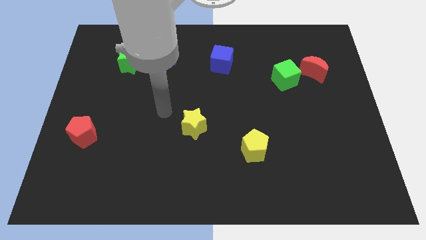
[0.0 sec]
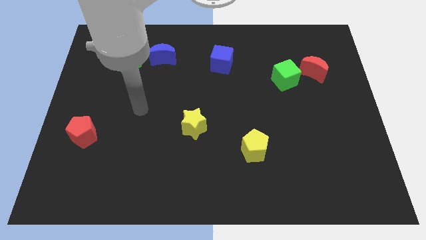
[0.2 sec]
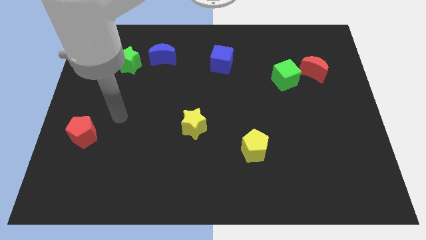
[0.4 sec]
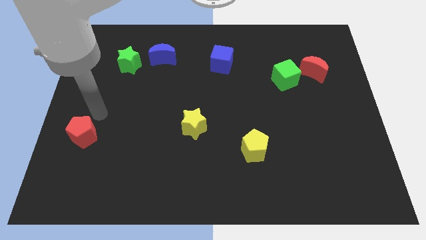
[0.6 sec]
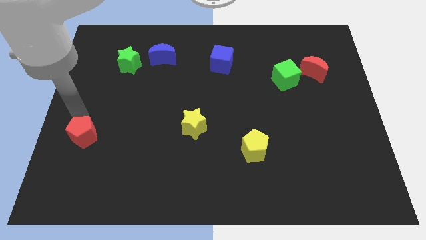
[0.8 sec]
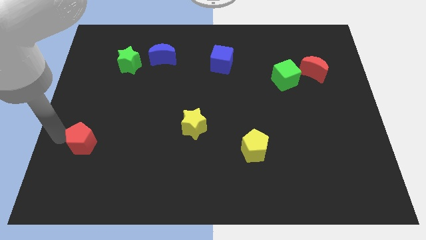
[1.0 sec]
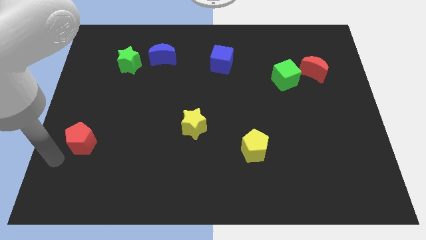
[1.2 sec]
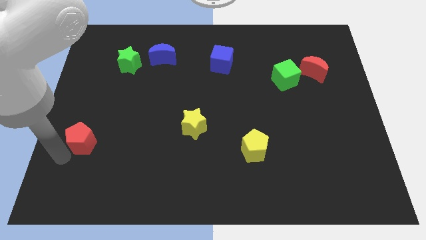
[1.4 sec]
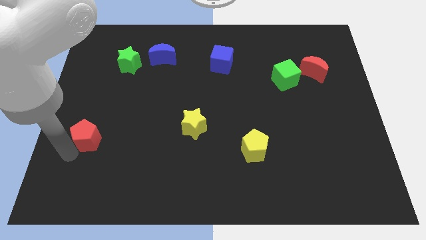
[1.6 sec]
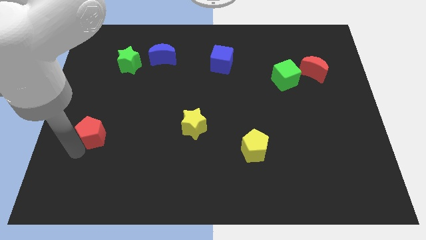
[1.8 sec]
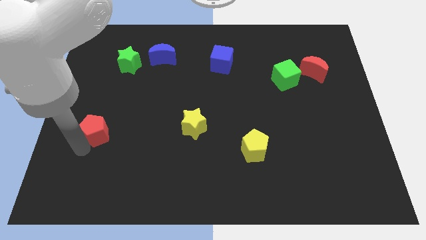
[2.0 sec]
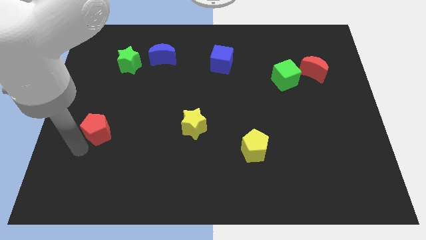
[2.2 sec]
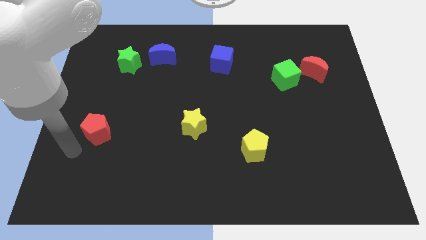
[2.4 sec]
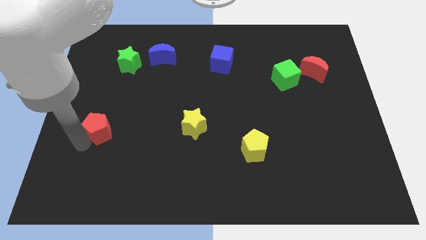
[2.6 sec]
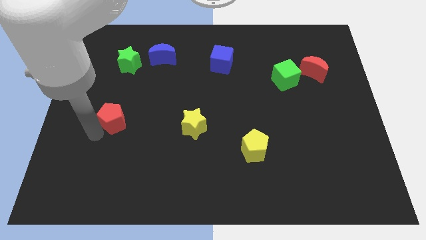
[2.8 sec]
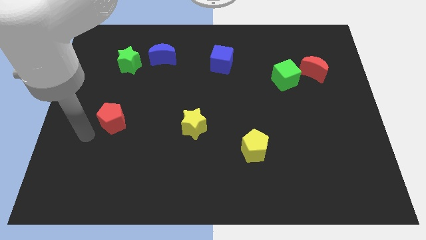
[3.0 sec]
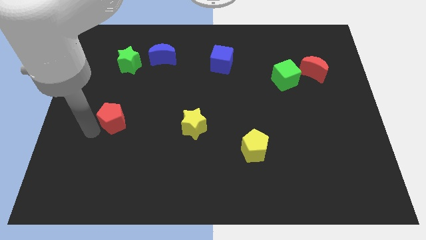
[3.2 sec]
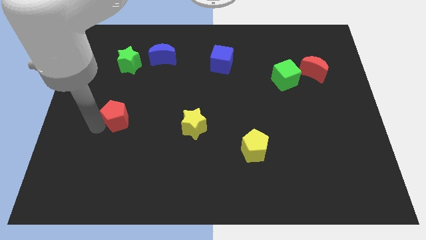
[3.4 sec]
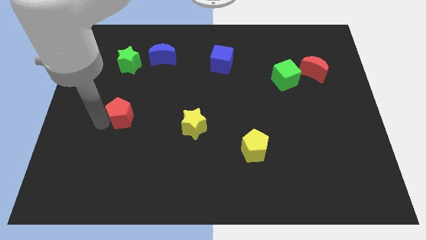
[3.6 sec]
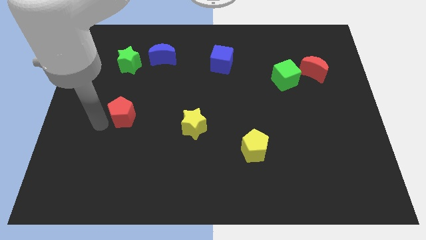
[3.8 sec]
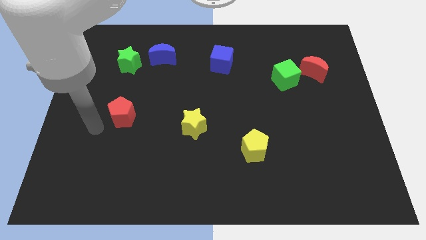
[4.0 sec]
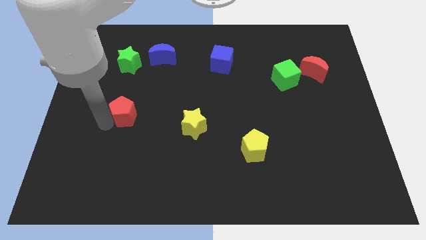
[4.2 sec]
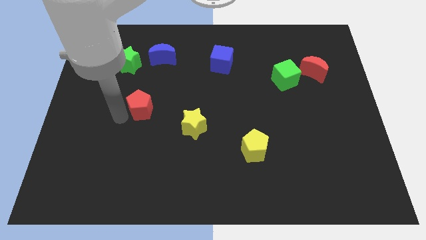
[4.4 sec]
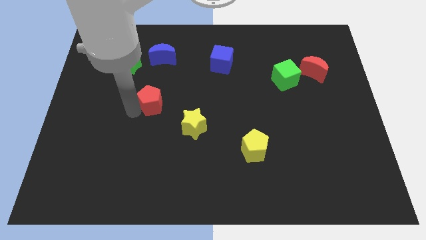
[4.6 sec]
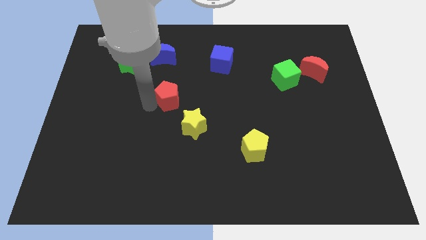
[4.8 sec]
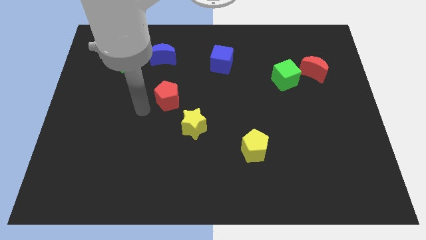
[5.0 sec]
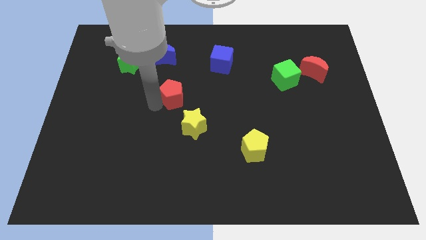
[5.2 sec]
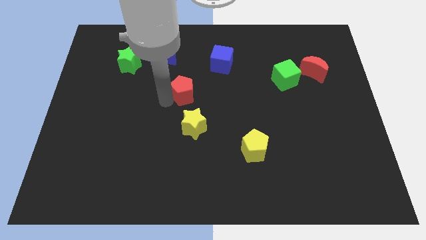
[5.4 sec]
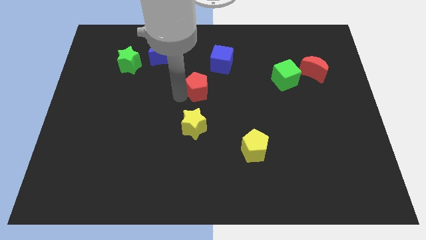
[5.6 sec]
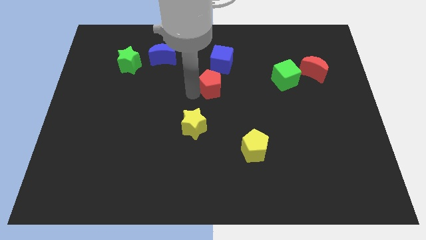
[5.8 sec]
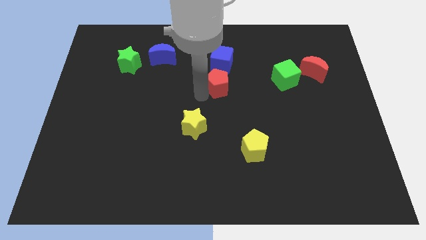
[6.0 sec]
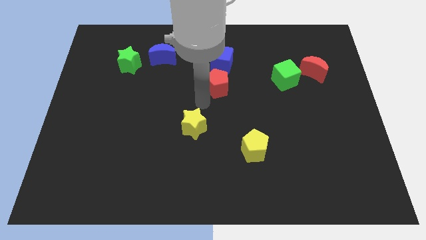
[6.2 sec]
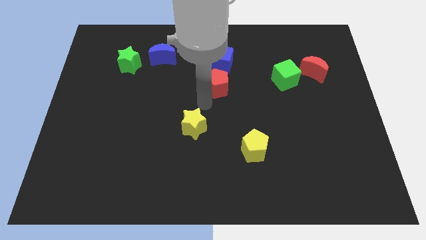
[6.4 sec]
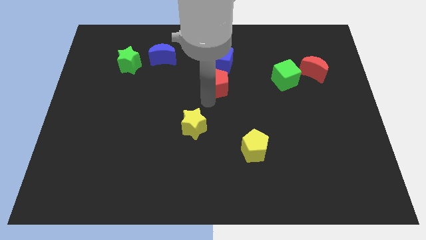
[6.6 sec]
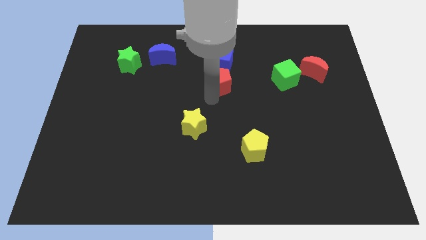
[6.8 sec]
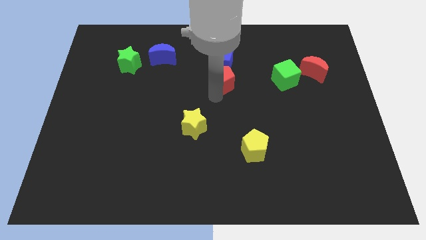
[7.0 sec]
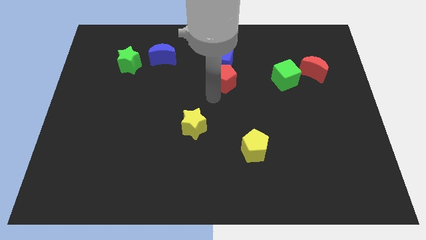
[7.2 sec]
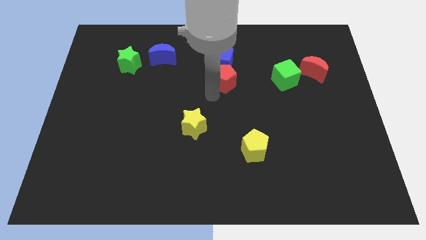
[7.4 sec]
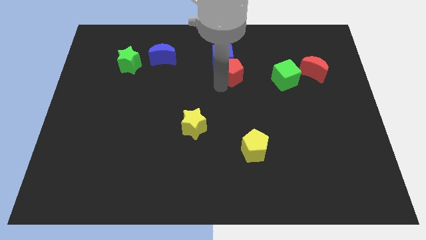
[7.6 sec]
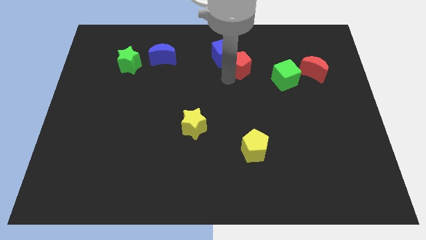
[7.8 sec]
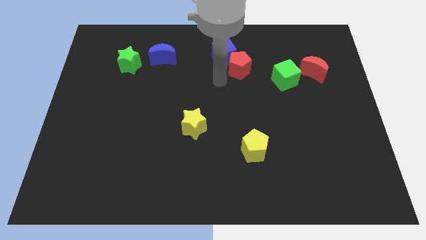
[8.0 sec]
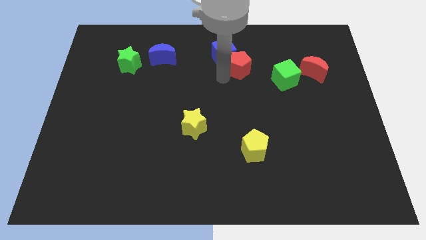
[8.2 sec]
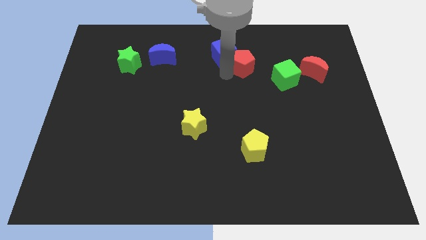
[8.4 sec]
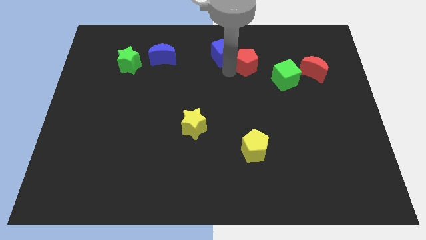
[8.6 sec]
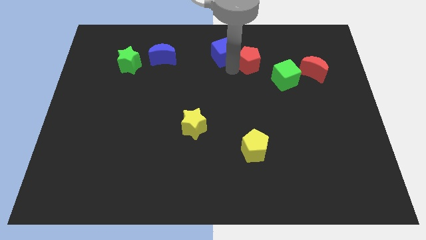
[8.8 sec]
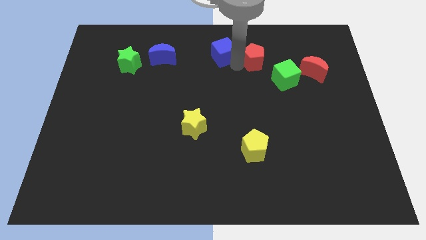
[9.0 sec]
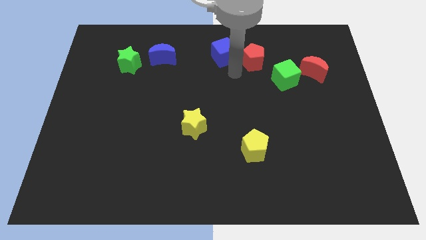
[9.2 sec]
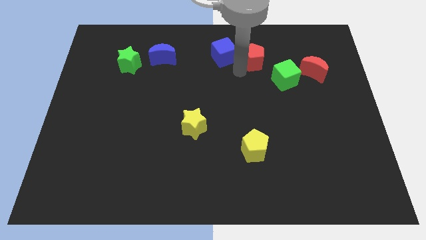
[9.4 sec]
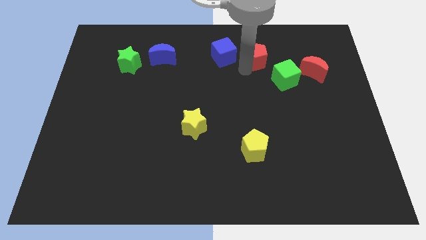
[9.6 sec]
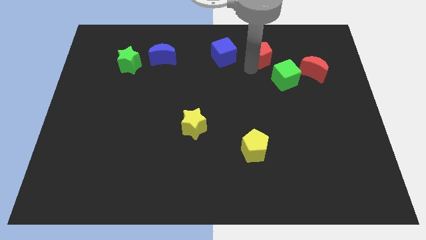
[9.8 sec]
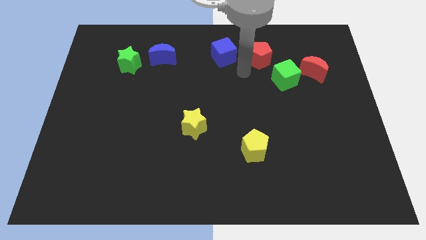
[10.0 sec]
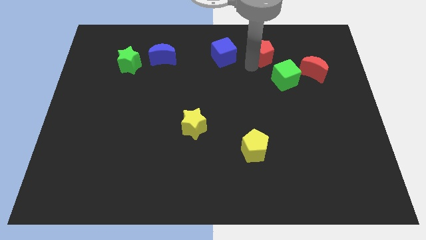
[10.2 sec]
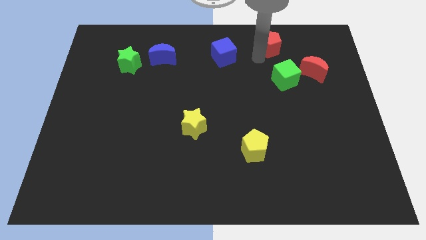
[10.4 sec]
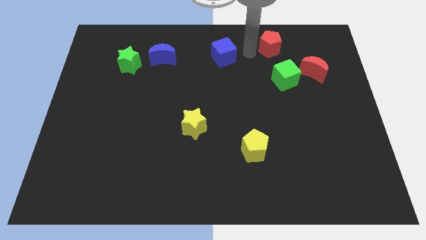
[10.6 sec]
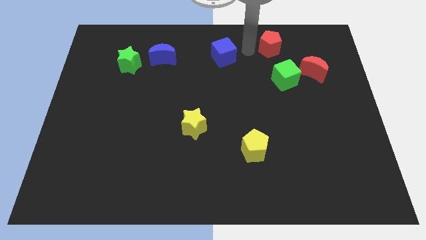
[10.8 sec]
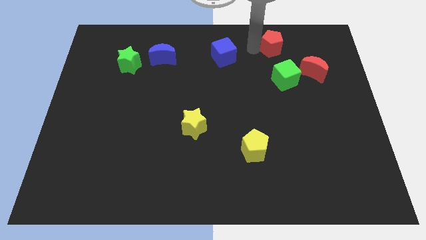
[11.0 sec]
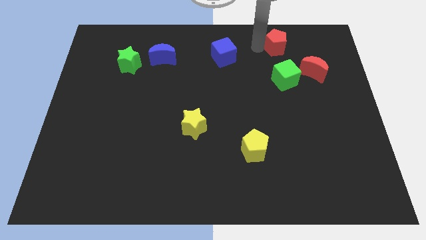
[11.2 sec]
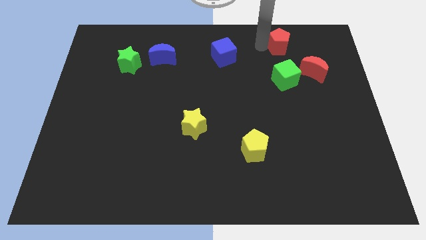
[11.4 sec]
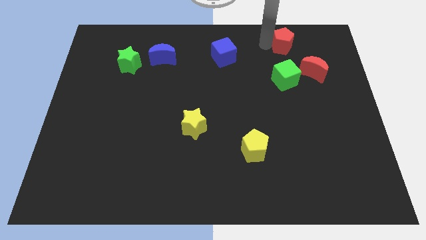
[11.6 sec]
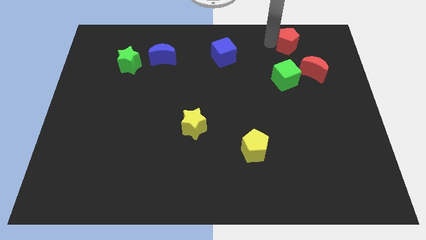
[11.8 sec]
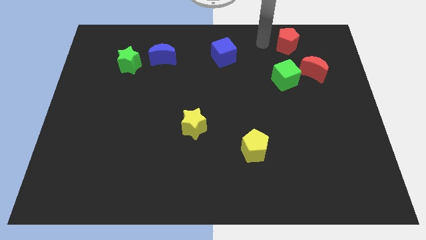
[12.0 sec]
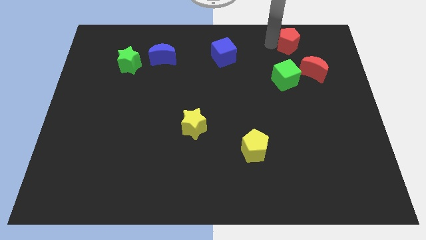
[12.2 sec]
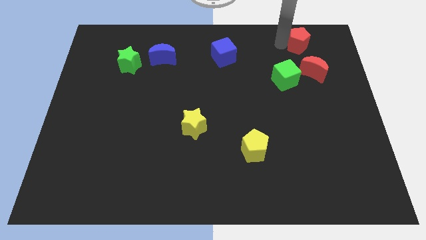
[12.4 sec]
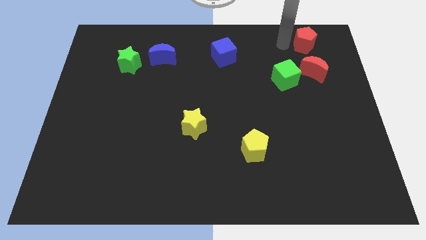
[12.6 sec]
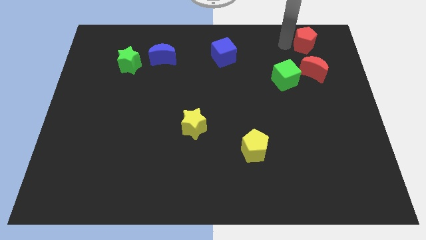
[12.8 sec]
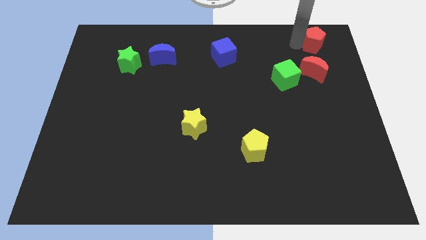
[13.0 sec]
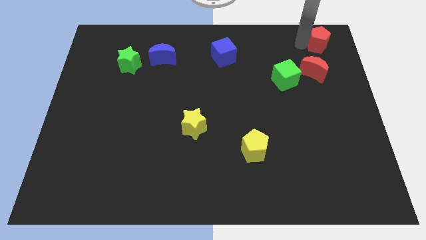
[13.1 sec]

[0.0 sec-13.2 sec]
move the red pentagon to the top right

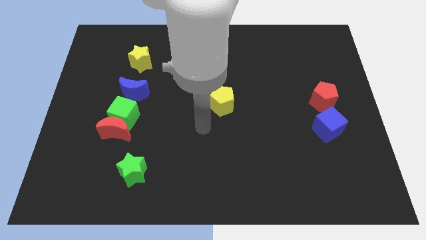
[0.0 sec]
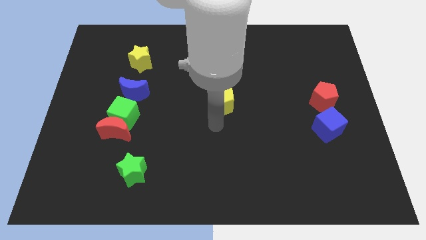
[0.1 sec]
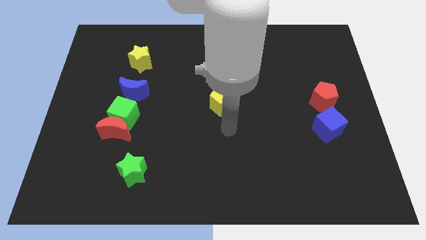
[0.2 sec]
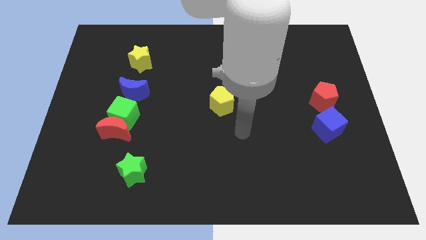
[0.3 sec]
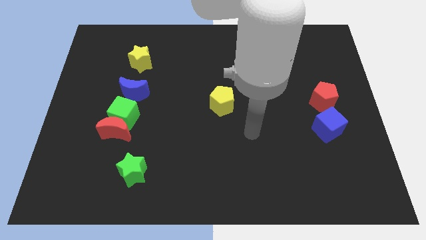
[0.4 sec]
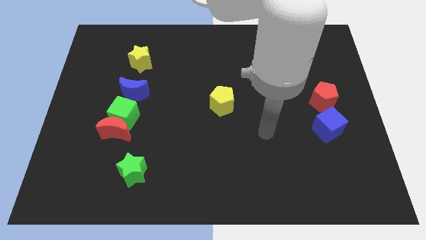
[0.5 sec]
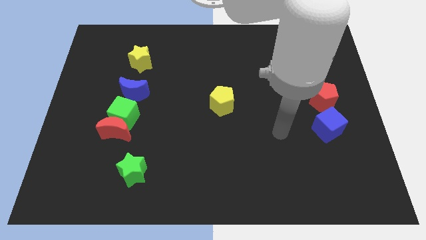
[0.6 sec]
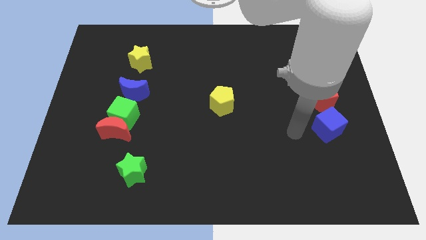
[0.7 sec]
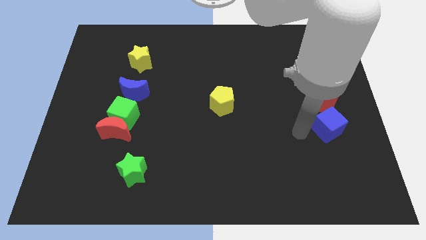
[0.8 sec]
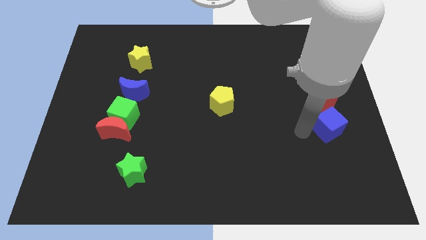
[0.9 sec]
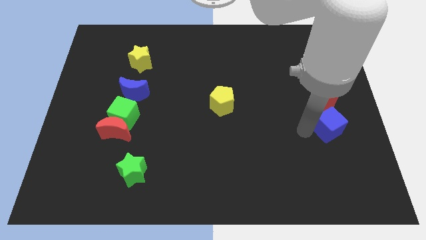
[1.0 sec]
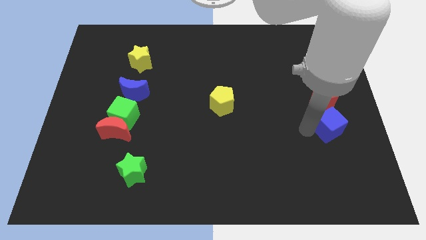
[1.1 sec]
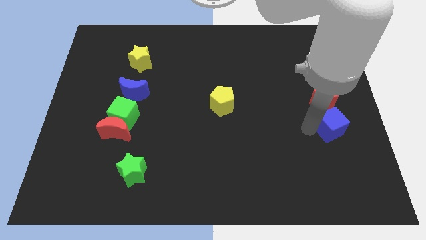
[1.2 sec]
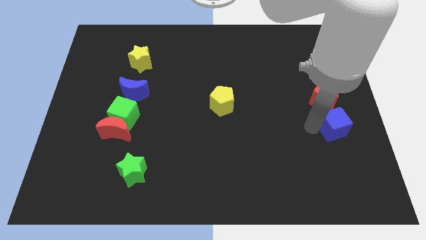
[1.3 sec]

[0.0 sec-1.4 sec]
slide the blue cube to the right side
